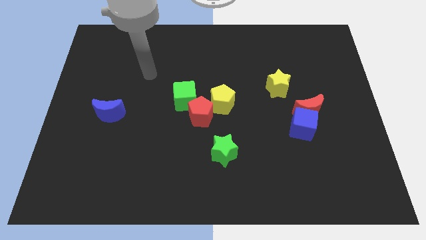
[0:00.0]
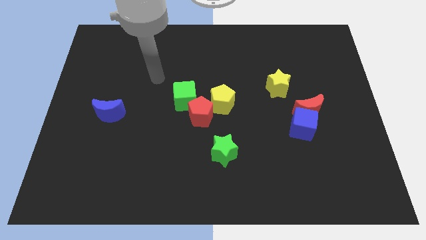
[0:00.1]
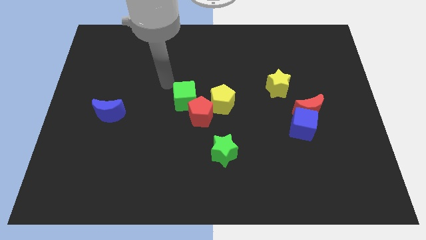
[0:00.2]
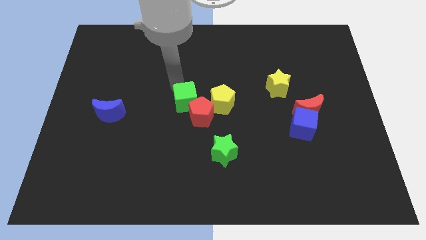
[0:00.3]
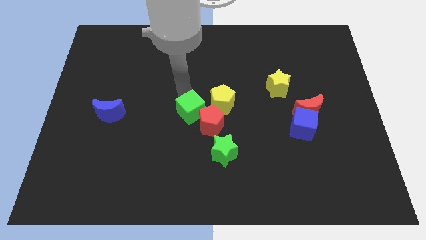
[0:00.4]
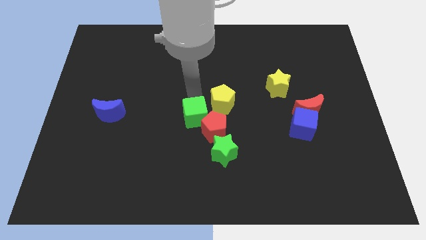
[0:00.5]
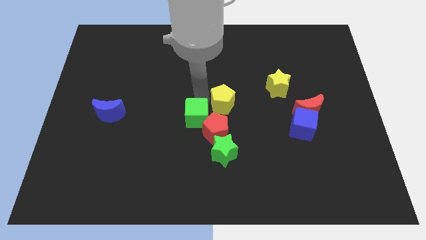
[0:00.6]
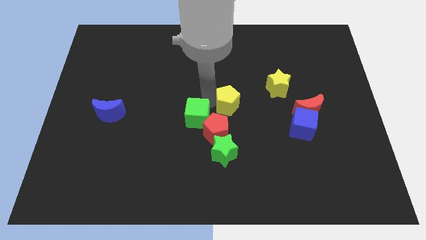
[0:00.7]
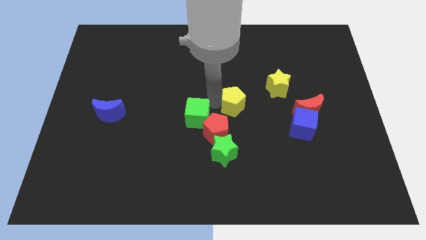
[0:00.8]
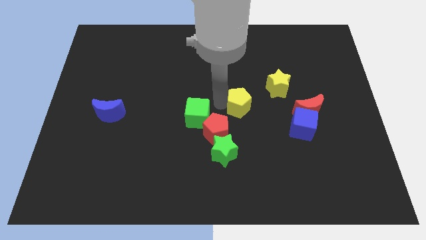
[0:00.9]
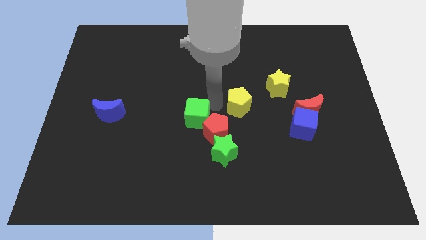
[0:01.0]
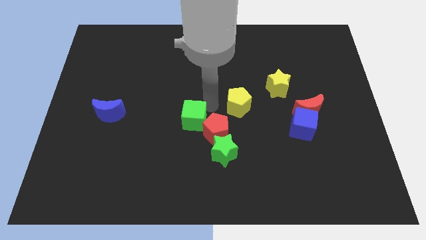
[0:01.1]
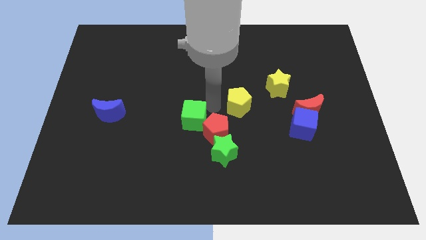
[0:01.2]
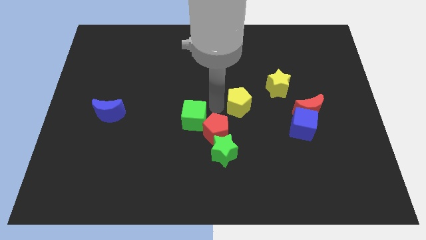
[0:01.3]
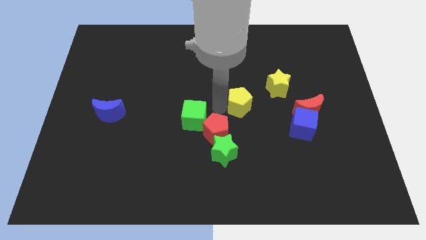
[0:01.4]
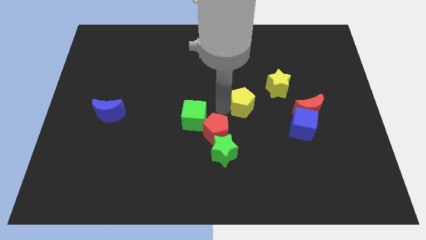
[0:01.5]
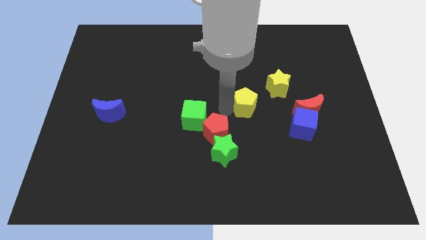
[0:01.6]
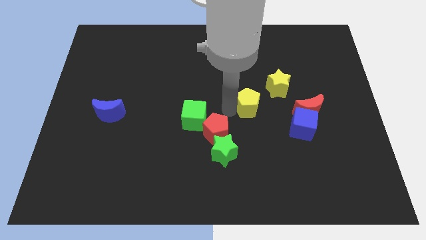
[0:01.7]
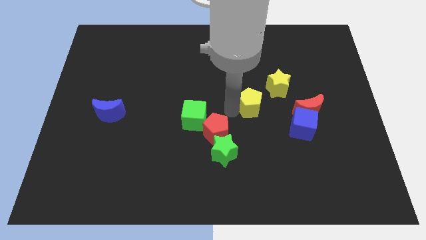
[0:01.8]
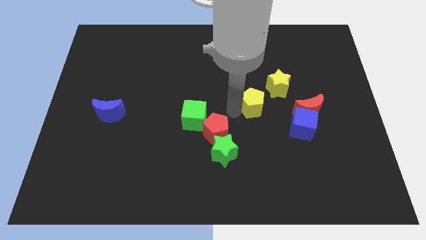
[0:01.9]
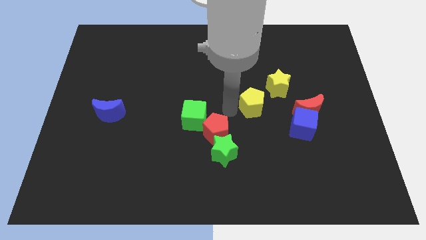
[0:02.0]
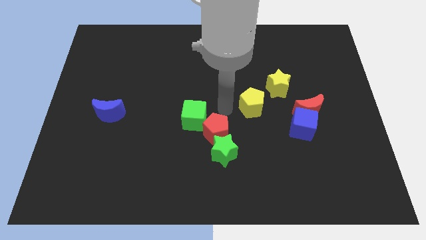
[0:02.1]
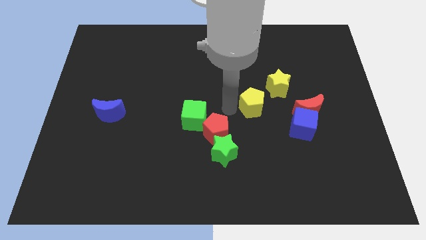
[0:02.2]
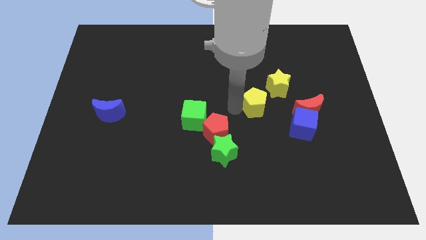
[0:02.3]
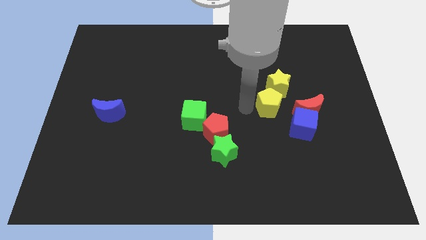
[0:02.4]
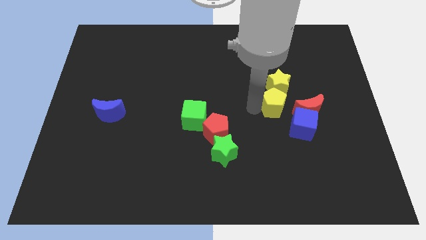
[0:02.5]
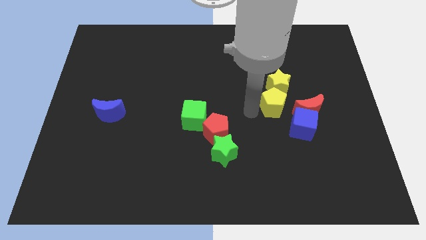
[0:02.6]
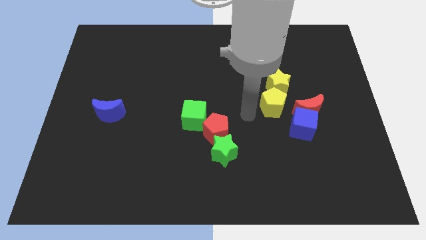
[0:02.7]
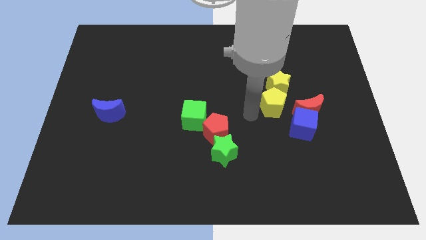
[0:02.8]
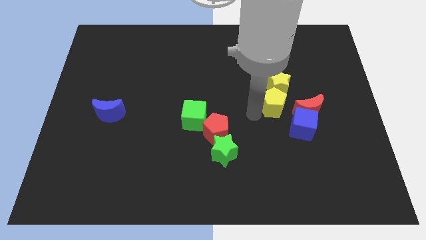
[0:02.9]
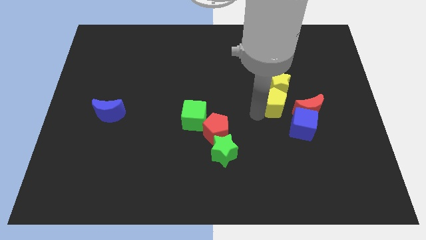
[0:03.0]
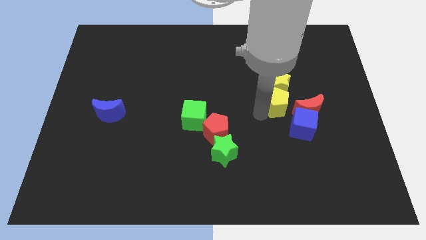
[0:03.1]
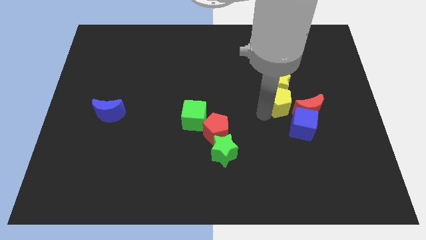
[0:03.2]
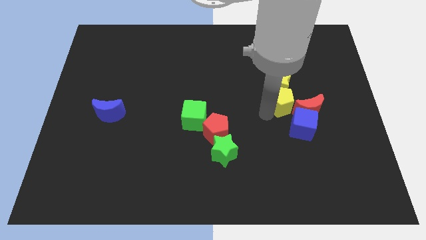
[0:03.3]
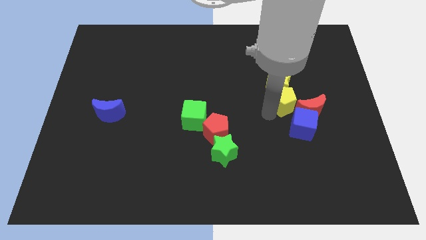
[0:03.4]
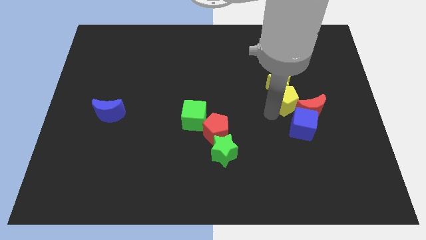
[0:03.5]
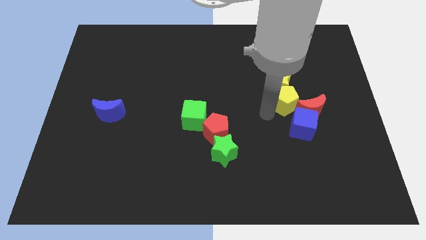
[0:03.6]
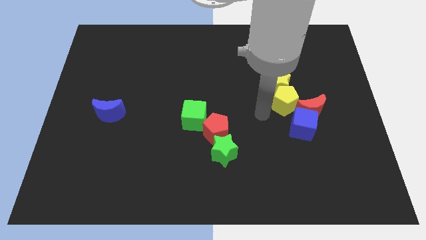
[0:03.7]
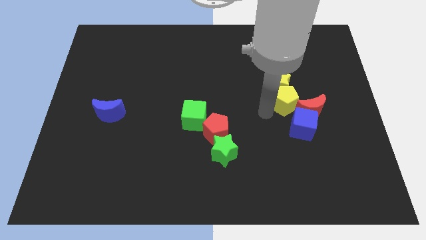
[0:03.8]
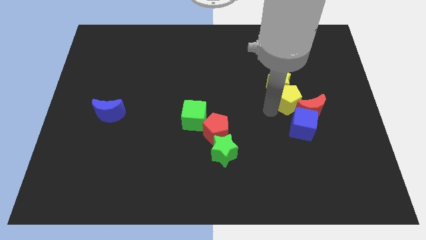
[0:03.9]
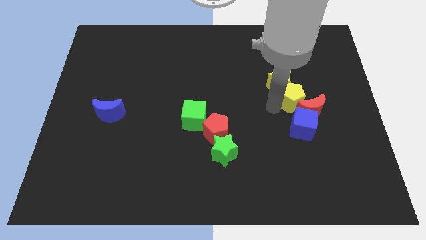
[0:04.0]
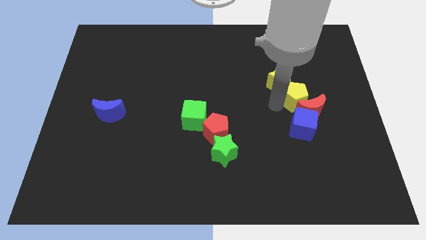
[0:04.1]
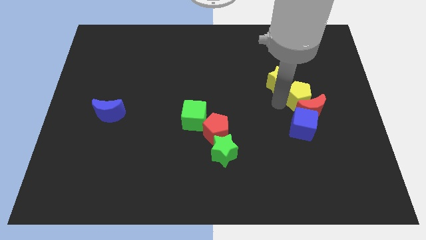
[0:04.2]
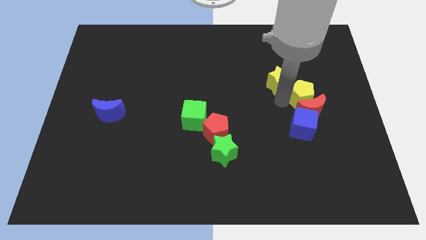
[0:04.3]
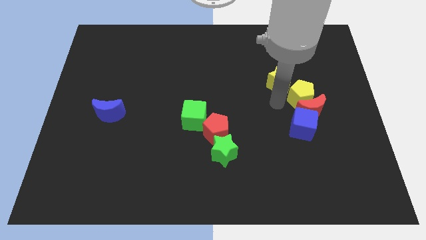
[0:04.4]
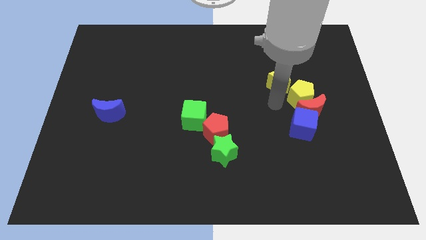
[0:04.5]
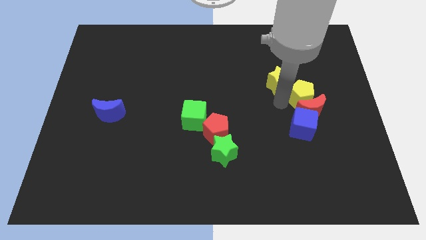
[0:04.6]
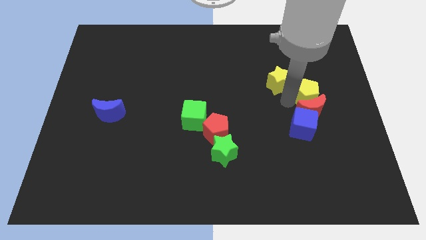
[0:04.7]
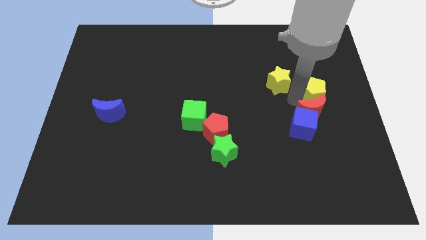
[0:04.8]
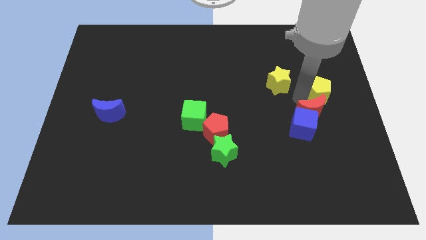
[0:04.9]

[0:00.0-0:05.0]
push the yellow pentagon to the right side

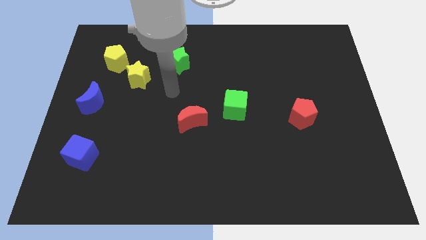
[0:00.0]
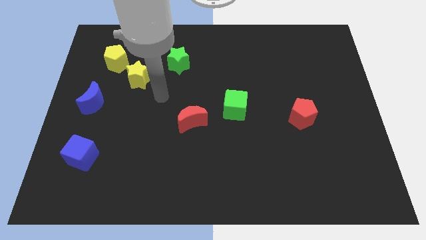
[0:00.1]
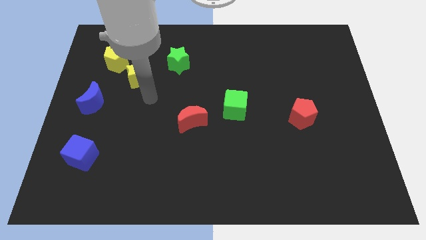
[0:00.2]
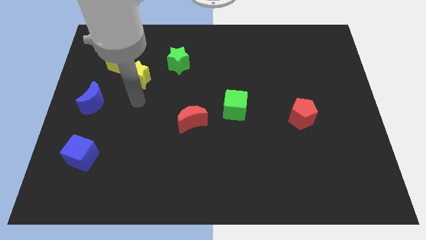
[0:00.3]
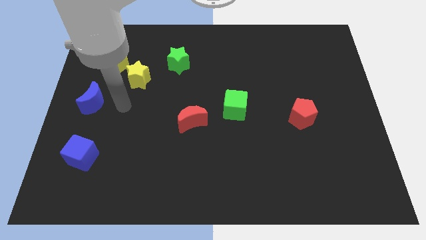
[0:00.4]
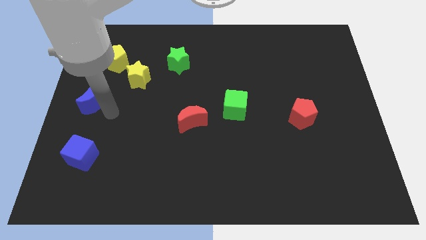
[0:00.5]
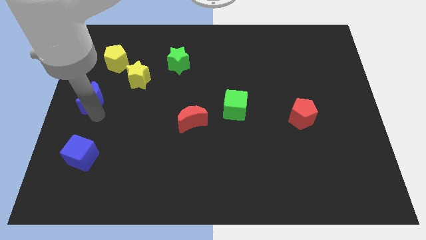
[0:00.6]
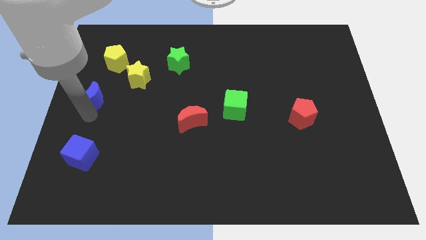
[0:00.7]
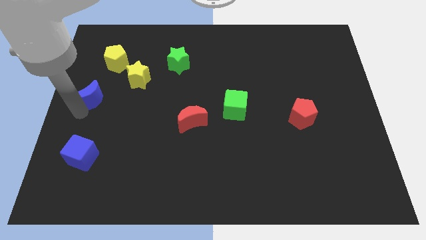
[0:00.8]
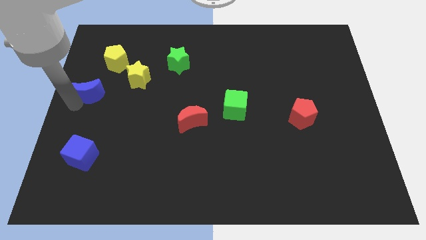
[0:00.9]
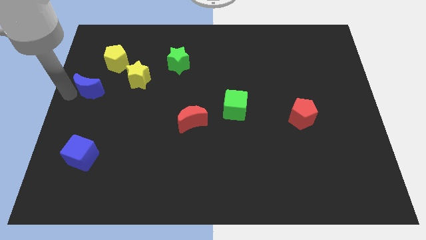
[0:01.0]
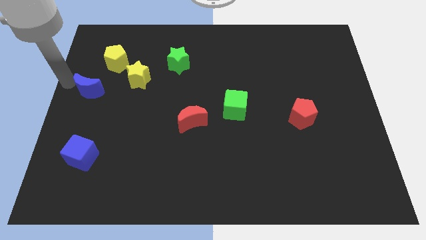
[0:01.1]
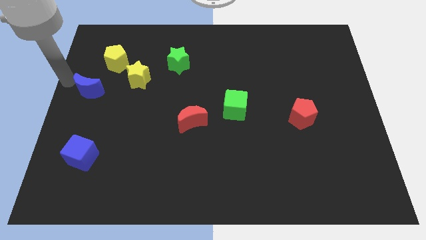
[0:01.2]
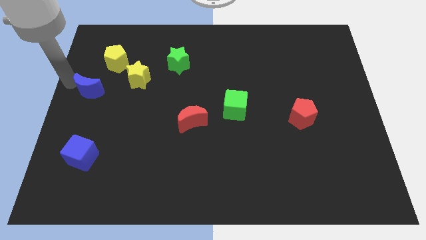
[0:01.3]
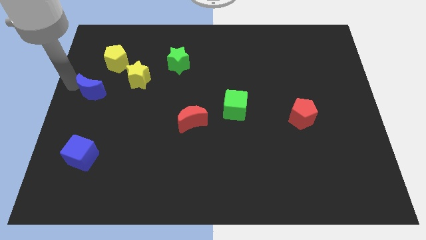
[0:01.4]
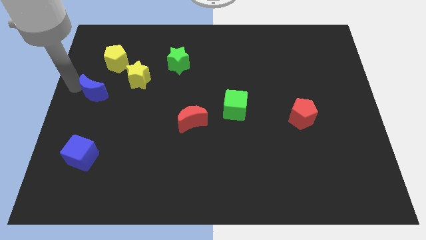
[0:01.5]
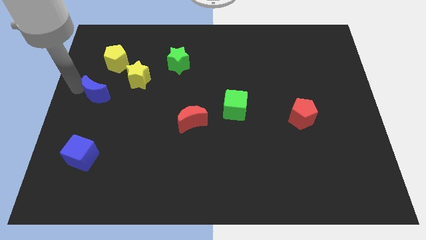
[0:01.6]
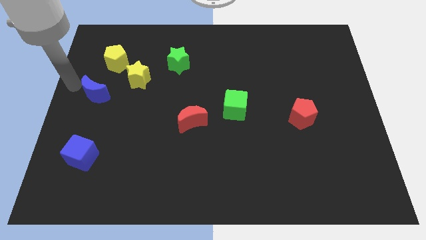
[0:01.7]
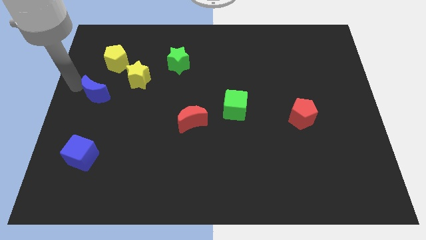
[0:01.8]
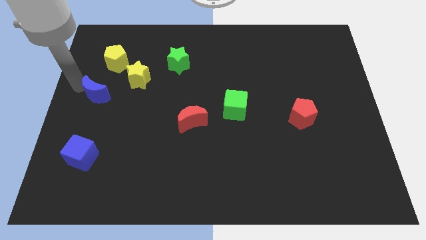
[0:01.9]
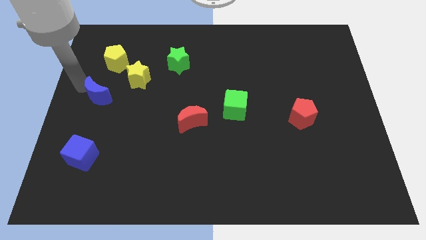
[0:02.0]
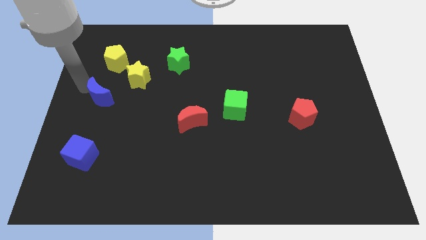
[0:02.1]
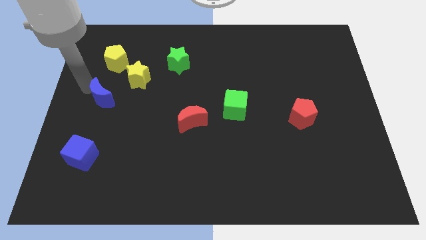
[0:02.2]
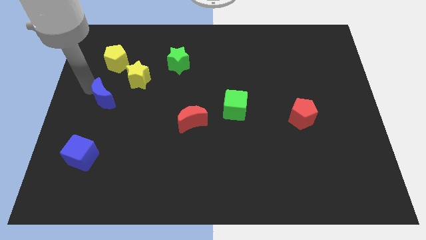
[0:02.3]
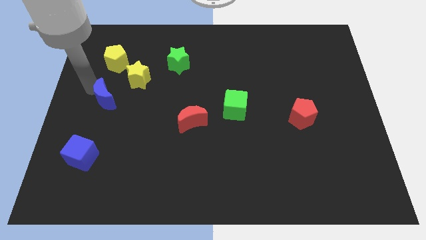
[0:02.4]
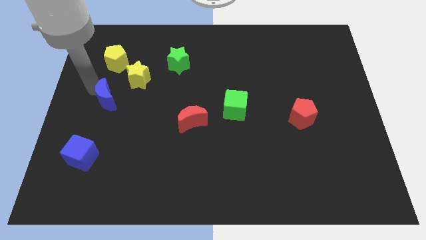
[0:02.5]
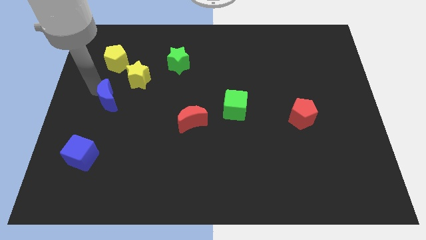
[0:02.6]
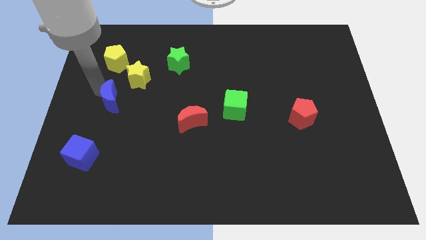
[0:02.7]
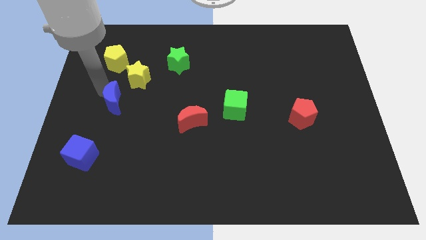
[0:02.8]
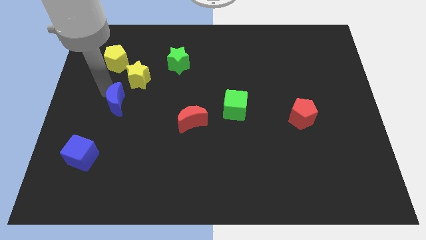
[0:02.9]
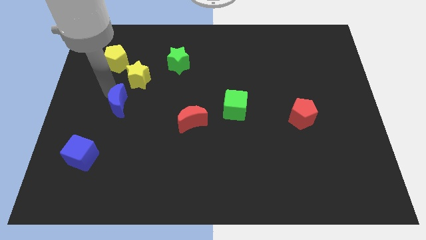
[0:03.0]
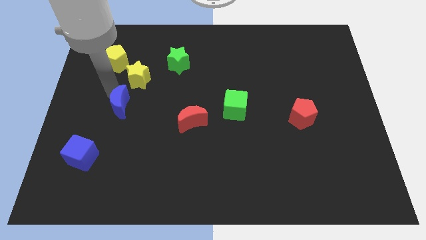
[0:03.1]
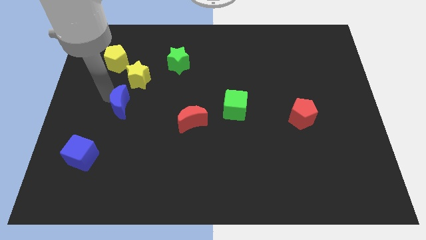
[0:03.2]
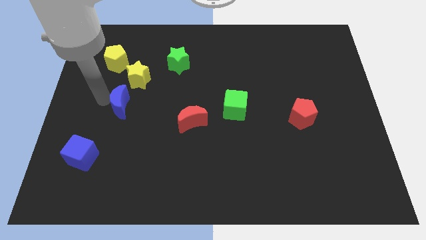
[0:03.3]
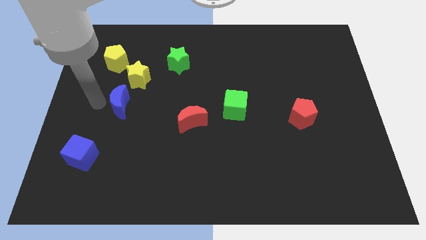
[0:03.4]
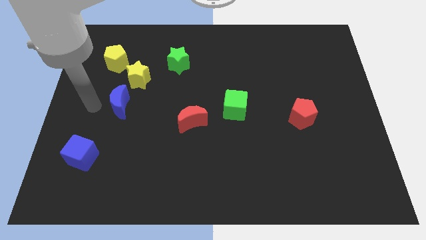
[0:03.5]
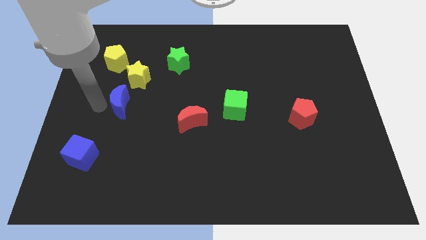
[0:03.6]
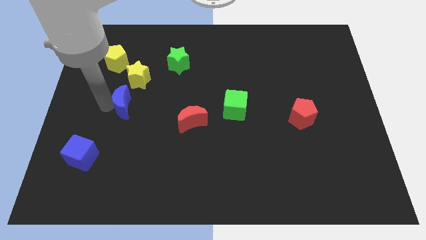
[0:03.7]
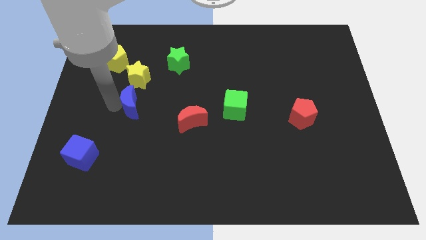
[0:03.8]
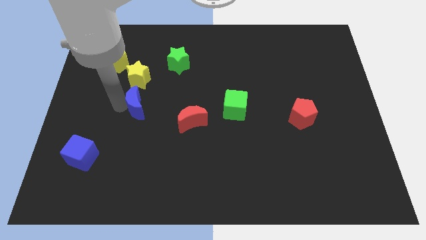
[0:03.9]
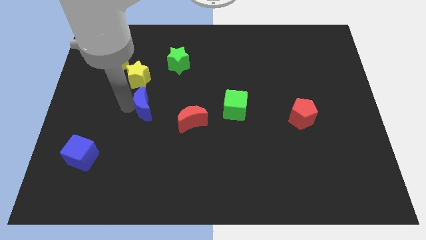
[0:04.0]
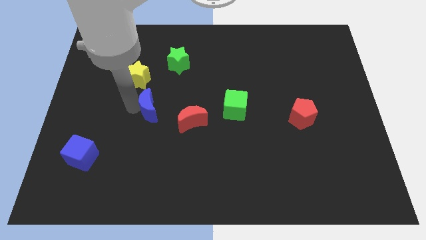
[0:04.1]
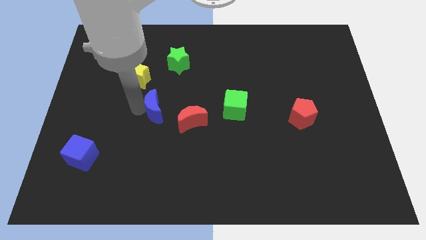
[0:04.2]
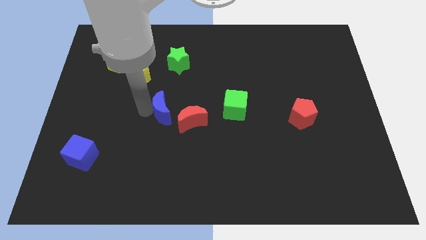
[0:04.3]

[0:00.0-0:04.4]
slide the blue moon to the center
